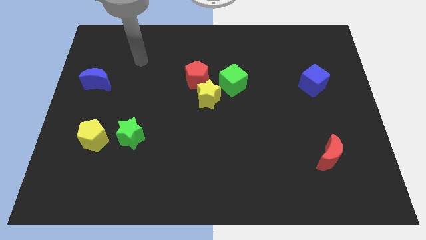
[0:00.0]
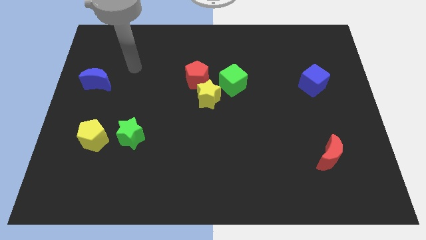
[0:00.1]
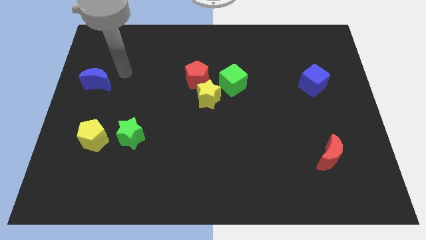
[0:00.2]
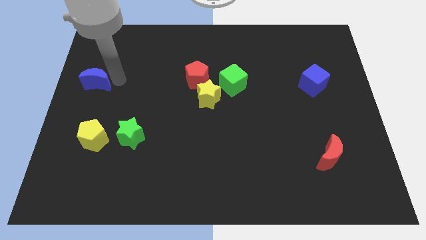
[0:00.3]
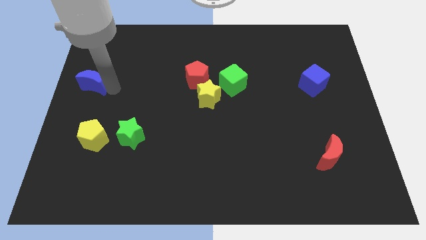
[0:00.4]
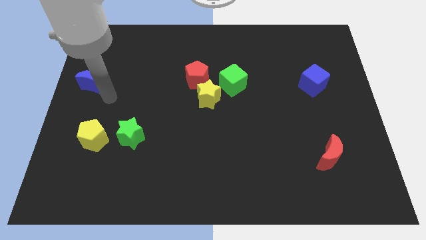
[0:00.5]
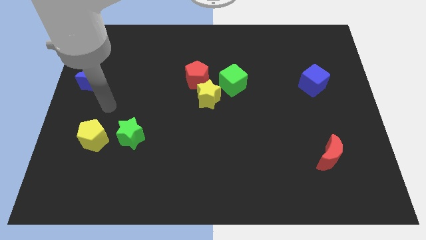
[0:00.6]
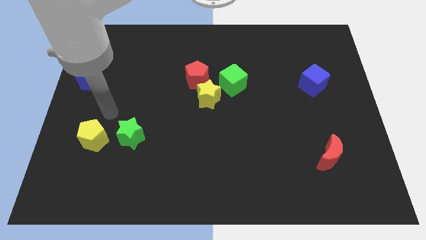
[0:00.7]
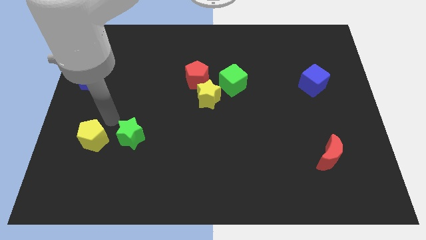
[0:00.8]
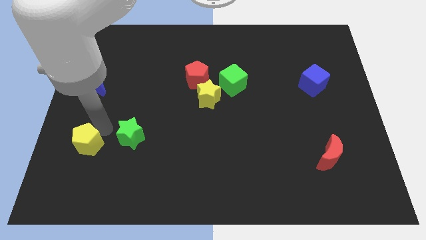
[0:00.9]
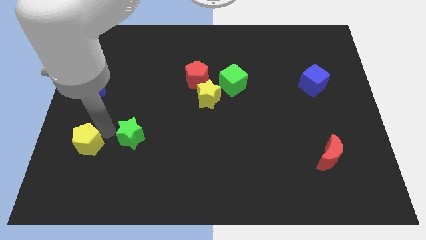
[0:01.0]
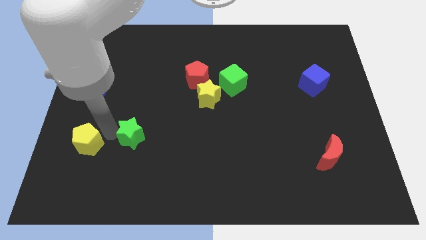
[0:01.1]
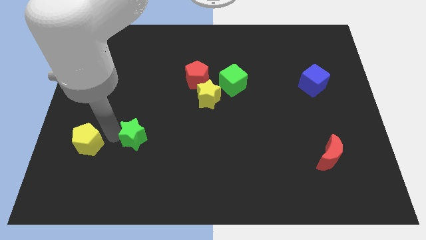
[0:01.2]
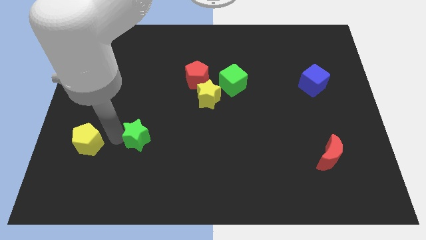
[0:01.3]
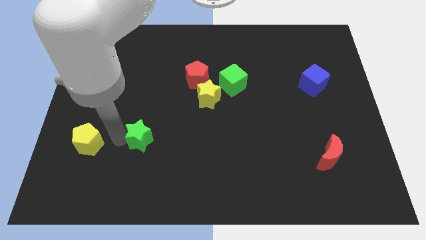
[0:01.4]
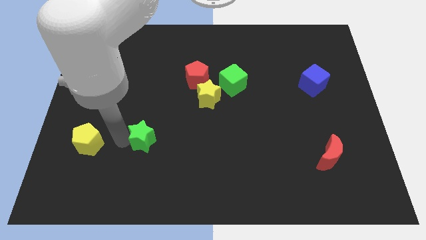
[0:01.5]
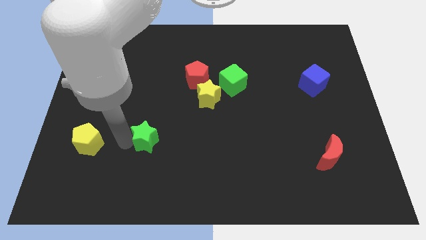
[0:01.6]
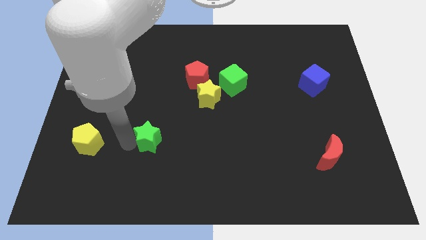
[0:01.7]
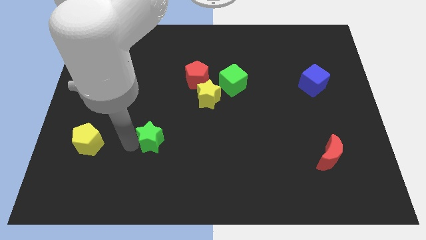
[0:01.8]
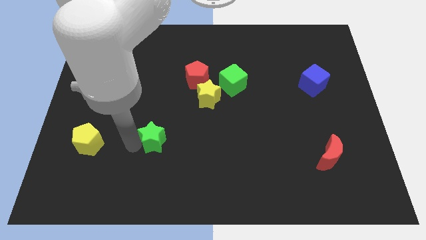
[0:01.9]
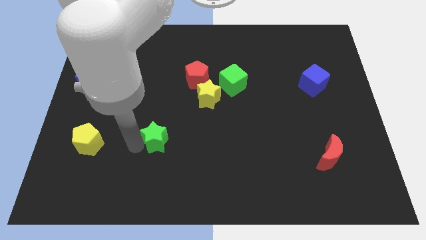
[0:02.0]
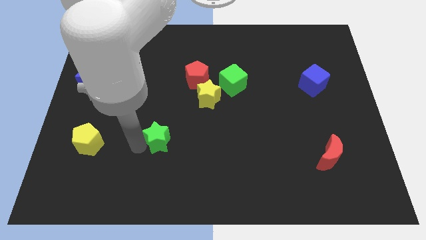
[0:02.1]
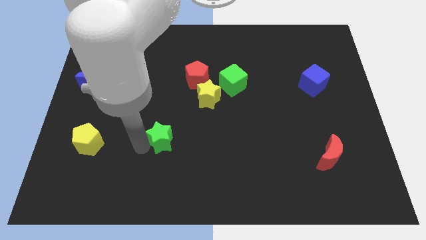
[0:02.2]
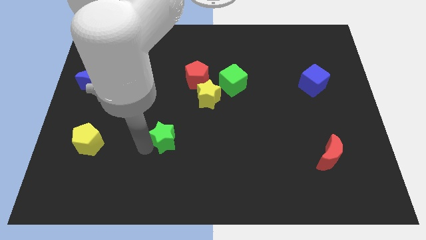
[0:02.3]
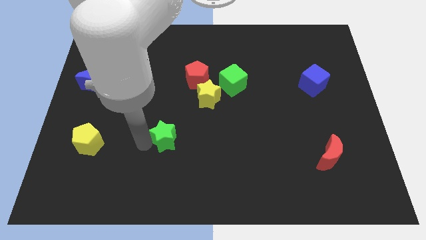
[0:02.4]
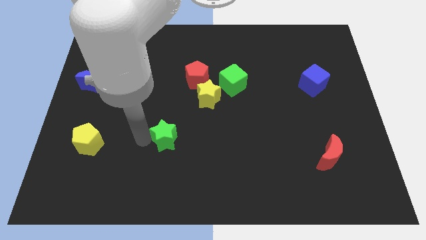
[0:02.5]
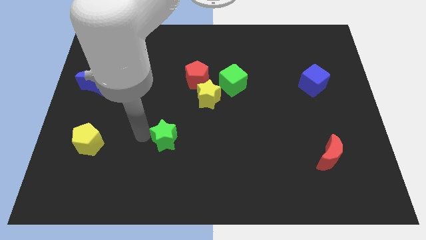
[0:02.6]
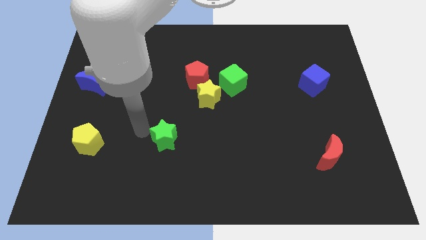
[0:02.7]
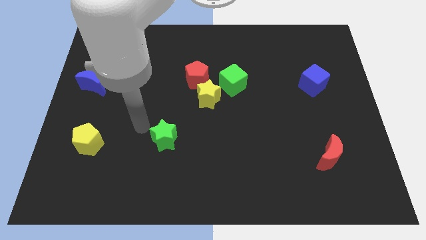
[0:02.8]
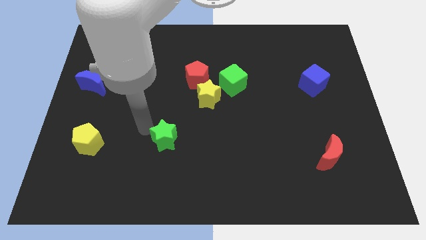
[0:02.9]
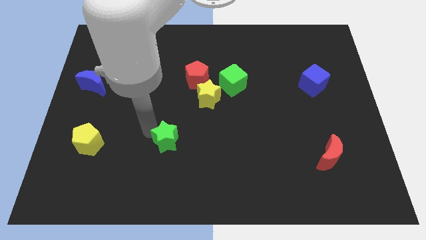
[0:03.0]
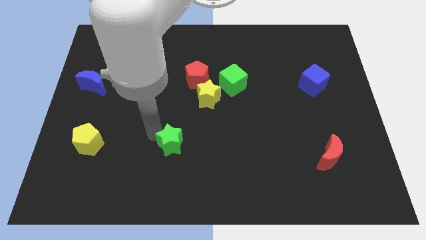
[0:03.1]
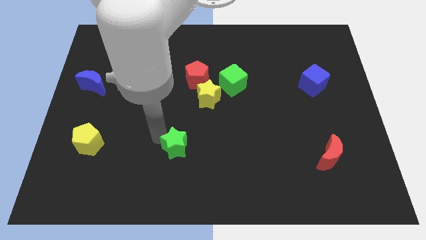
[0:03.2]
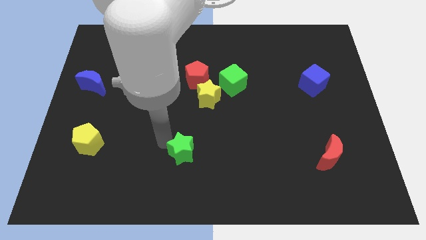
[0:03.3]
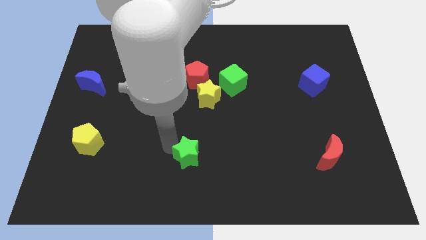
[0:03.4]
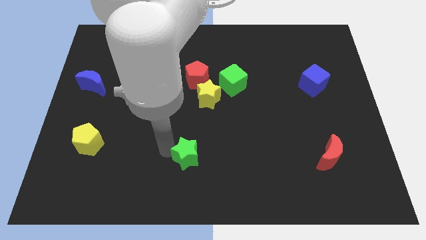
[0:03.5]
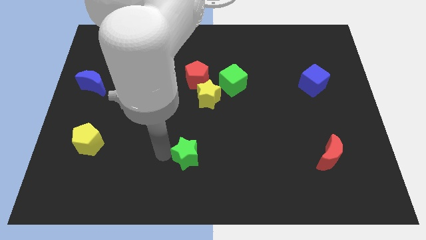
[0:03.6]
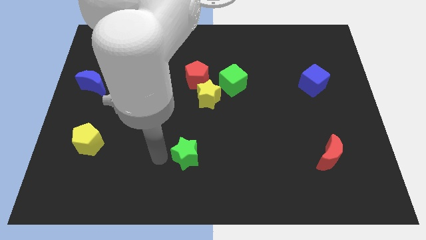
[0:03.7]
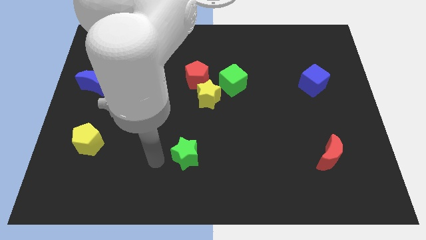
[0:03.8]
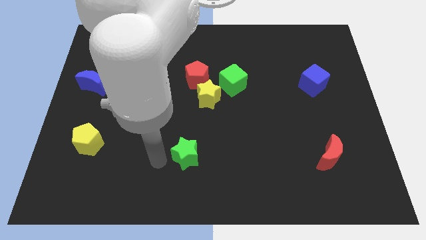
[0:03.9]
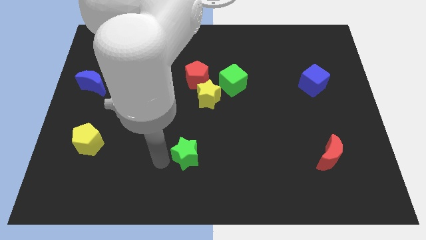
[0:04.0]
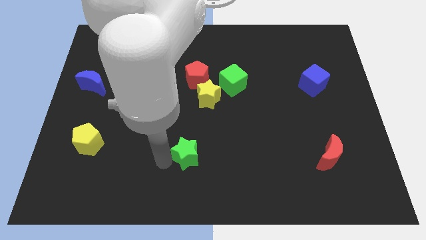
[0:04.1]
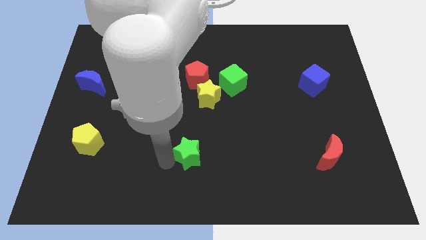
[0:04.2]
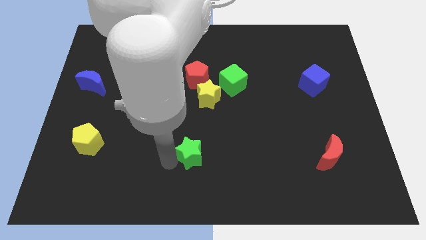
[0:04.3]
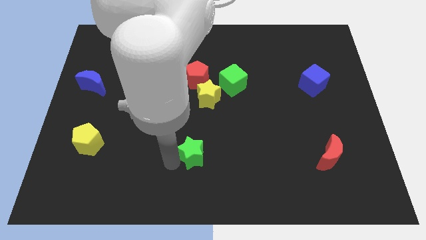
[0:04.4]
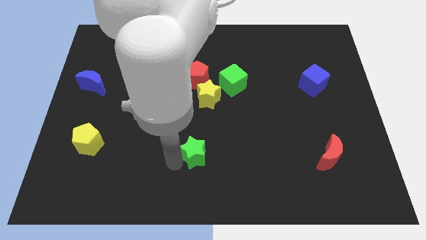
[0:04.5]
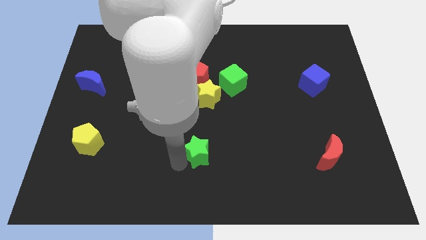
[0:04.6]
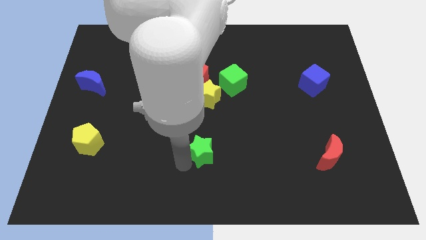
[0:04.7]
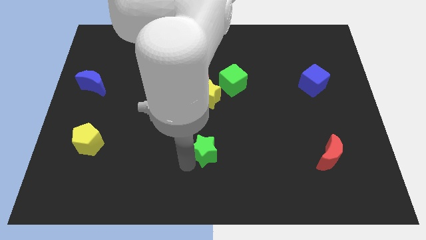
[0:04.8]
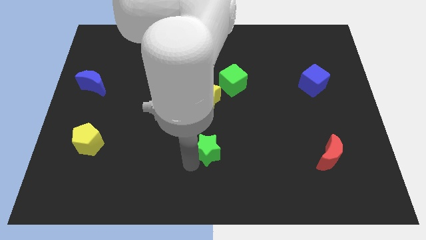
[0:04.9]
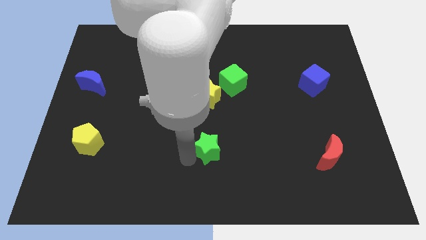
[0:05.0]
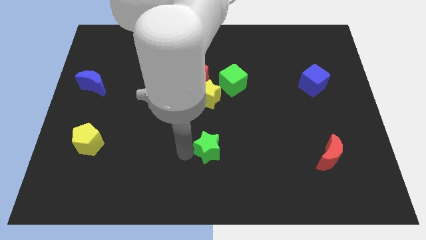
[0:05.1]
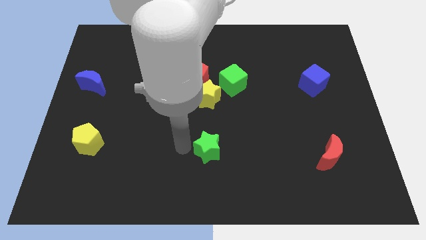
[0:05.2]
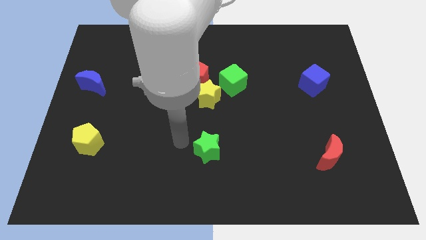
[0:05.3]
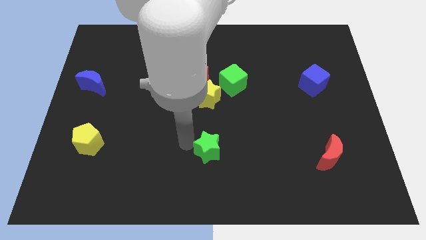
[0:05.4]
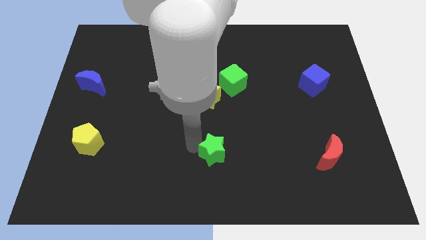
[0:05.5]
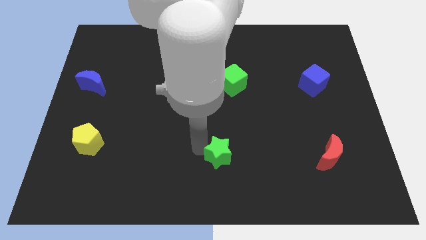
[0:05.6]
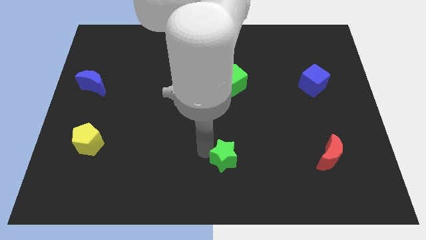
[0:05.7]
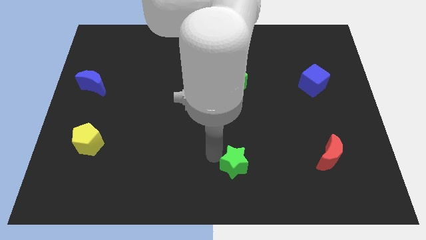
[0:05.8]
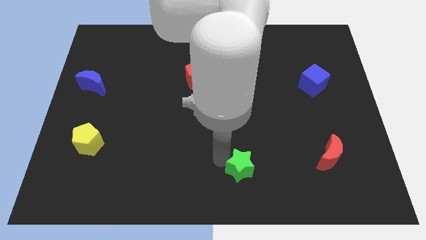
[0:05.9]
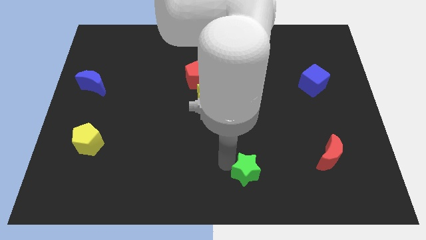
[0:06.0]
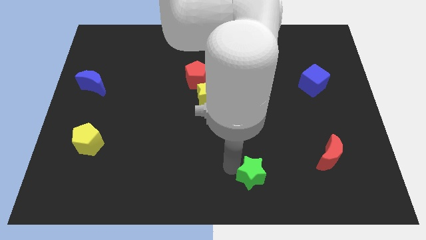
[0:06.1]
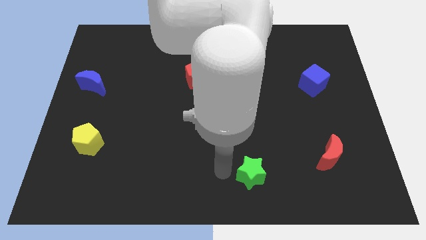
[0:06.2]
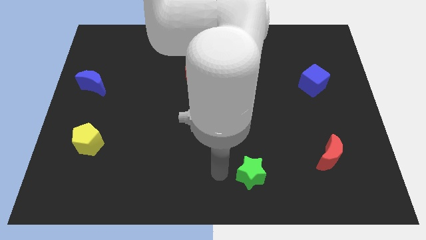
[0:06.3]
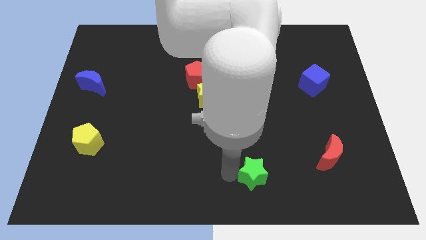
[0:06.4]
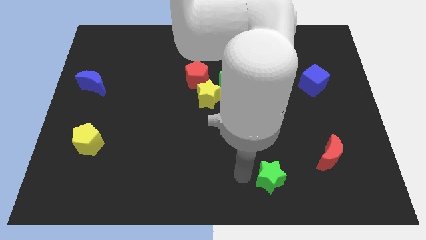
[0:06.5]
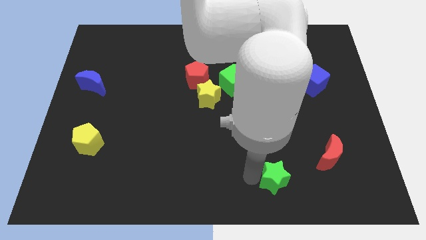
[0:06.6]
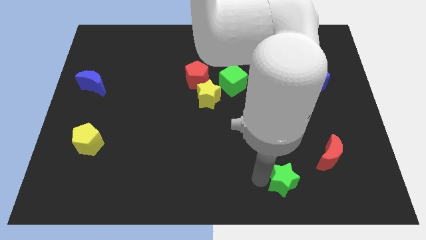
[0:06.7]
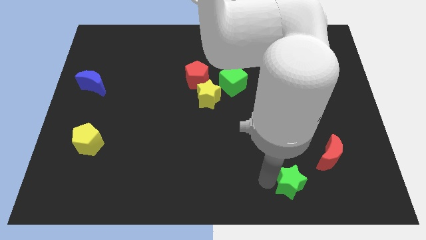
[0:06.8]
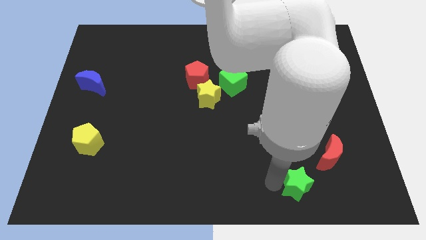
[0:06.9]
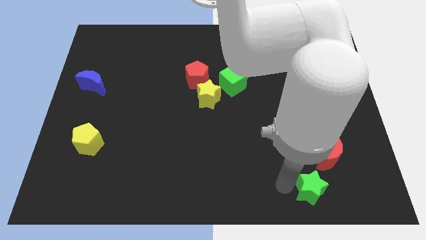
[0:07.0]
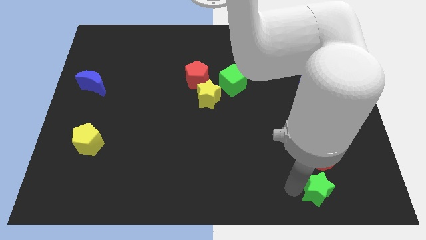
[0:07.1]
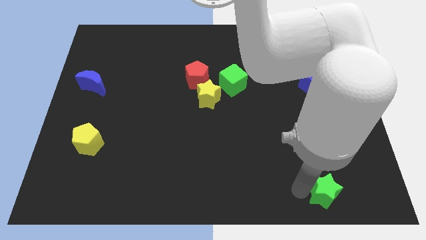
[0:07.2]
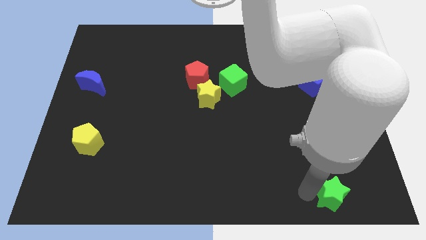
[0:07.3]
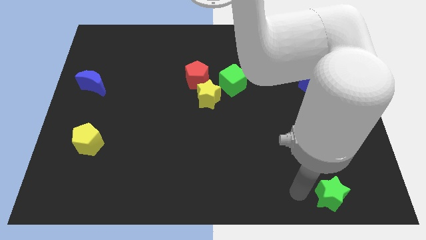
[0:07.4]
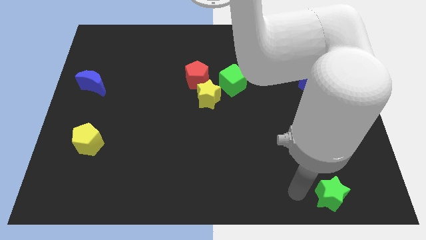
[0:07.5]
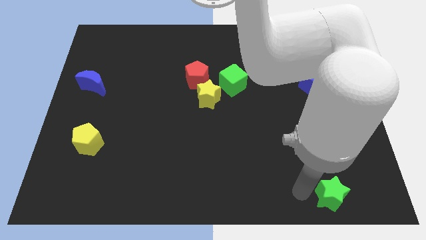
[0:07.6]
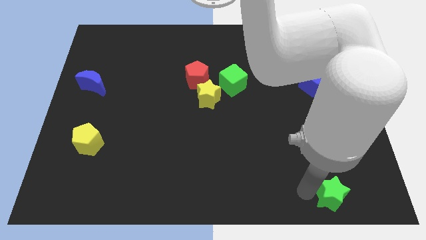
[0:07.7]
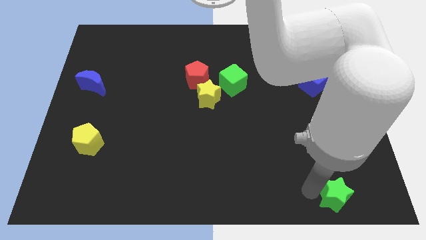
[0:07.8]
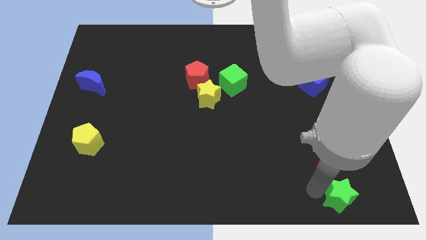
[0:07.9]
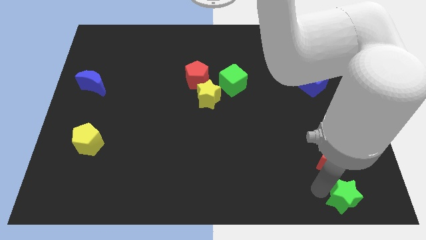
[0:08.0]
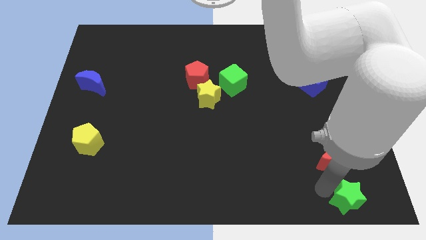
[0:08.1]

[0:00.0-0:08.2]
move the green star to the lower right corner
